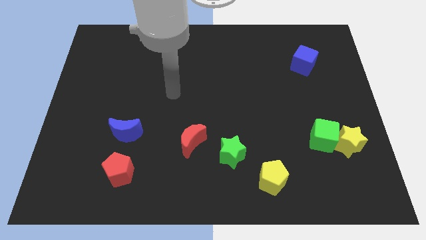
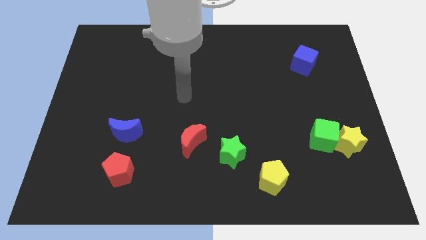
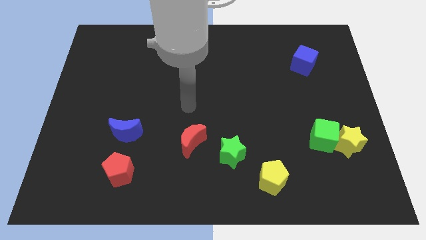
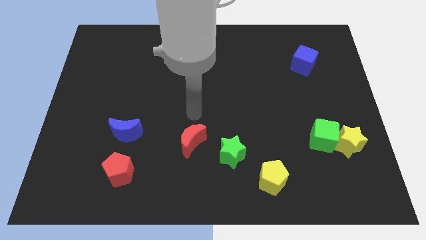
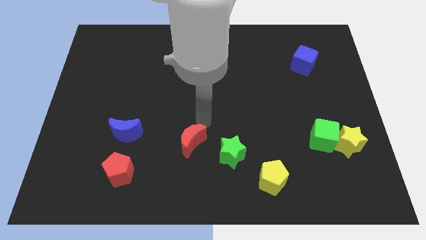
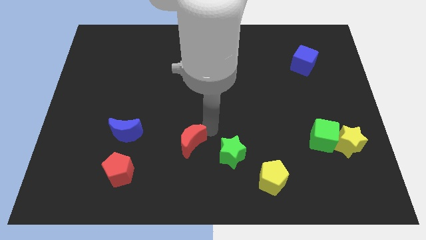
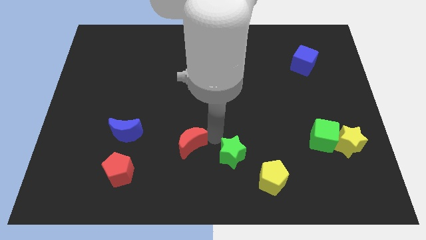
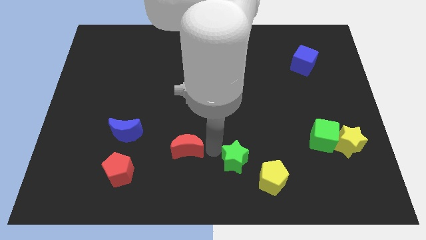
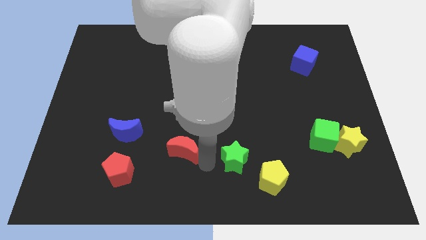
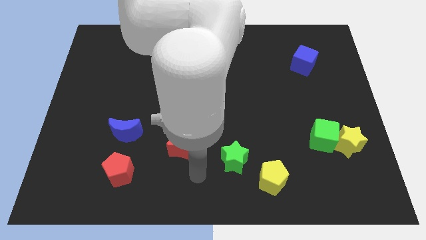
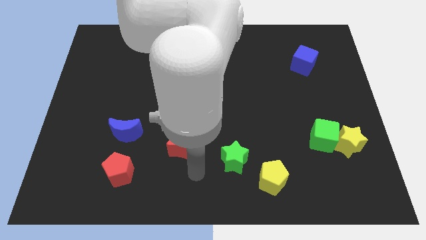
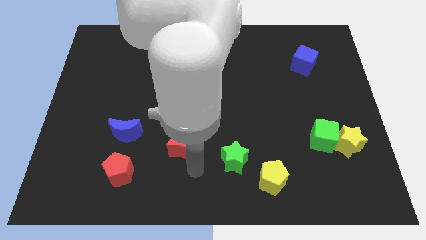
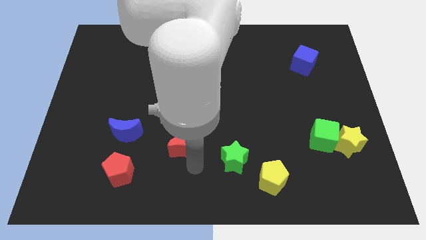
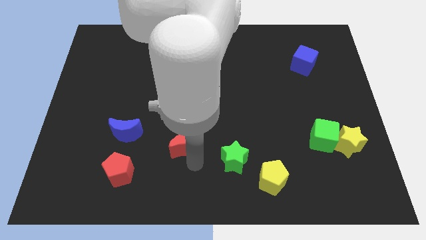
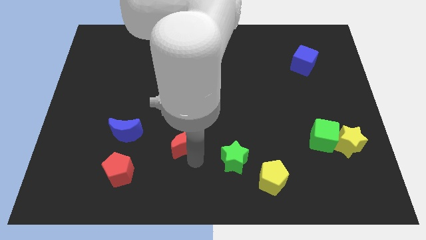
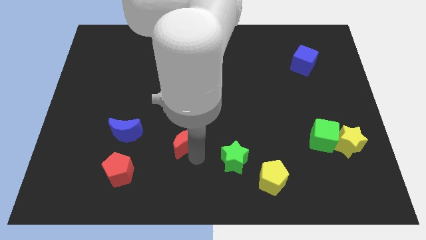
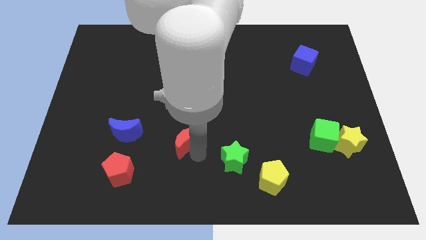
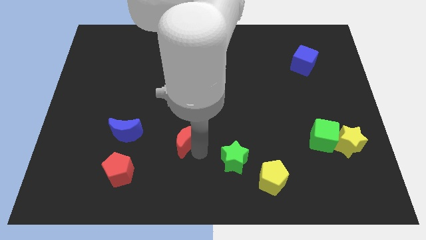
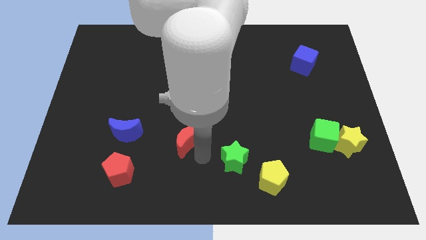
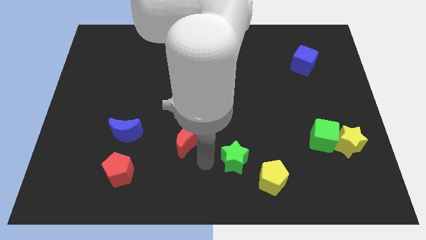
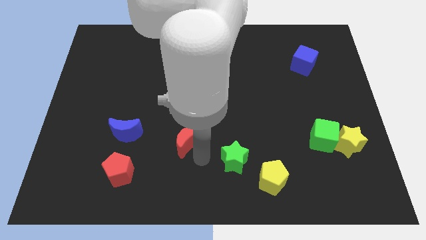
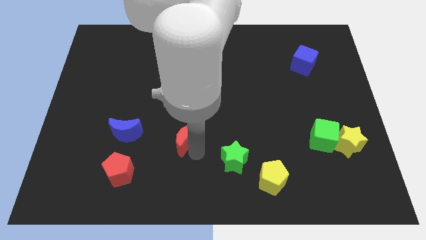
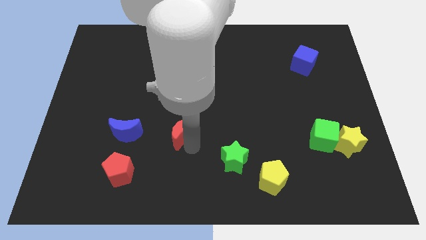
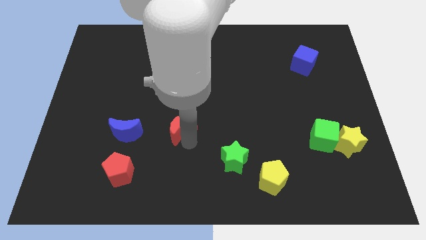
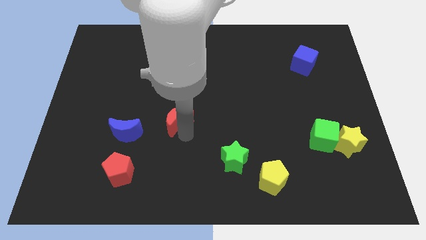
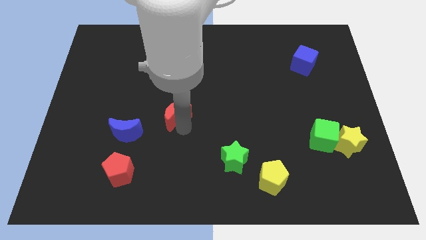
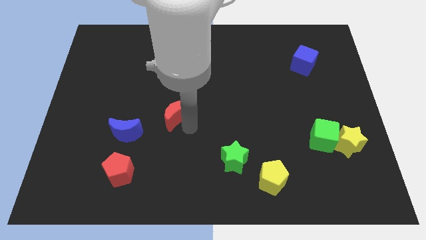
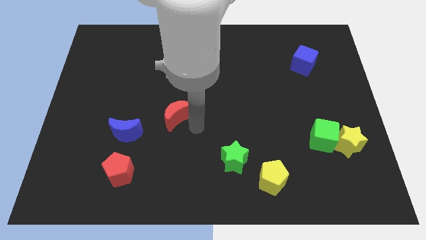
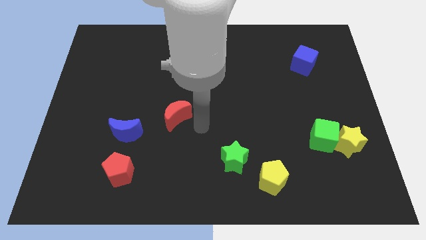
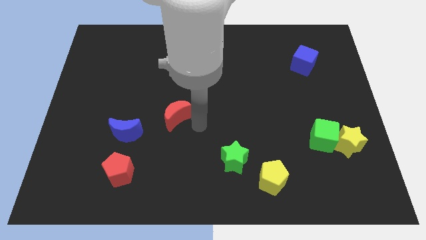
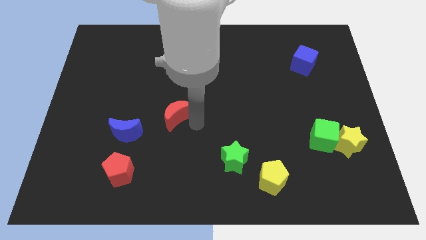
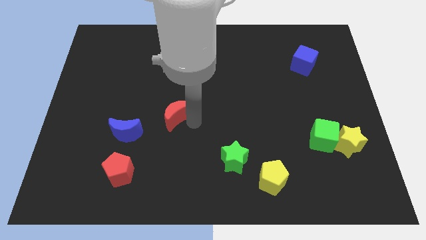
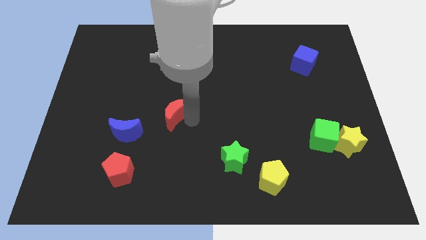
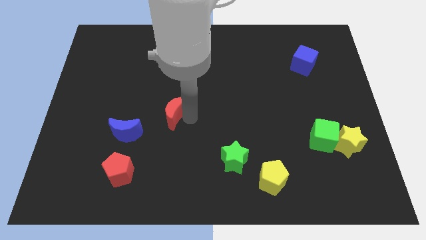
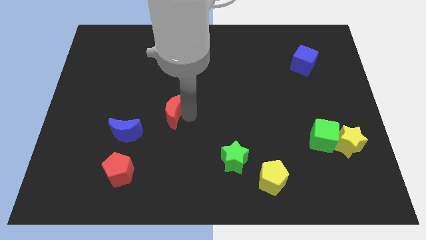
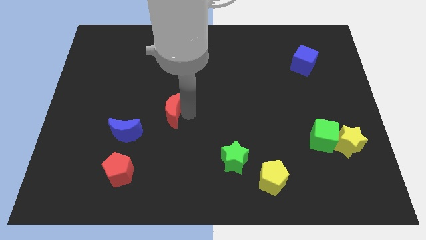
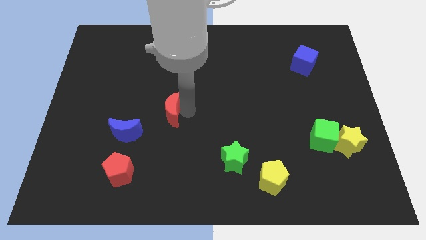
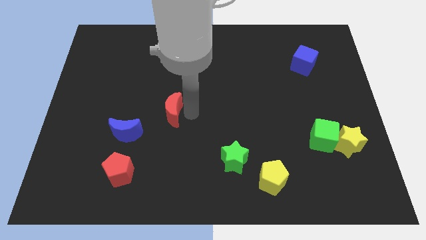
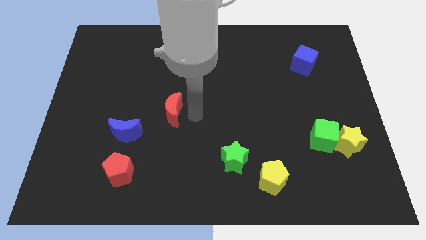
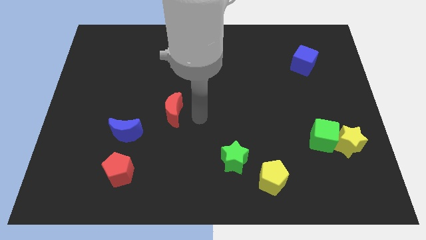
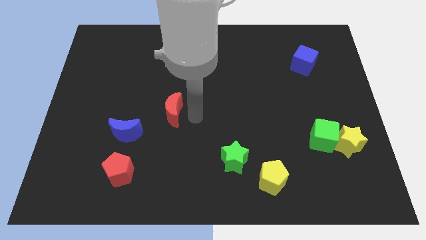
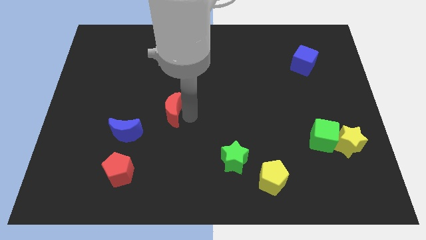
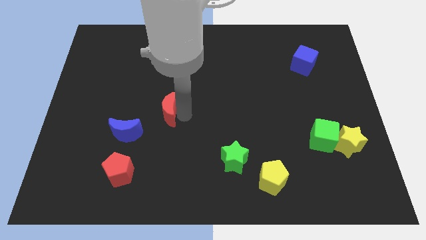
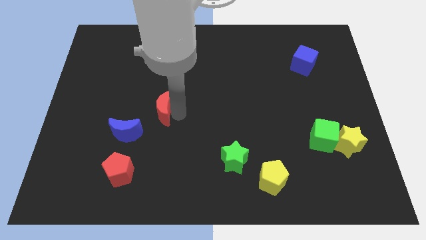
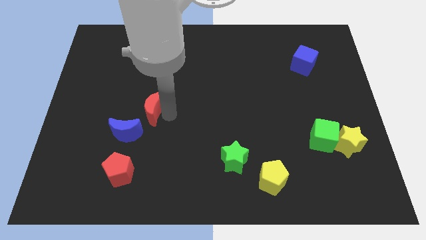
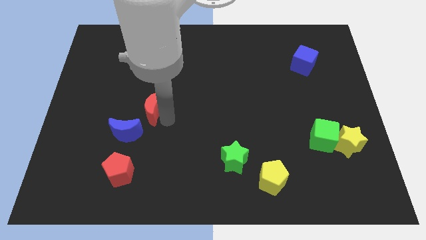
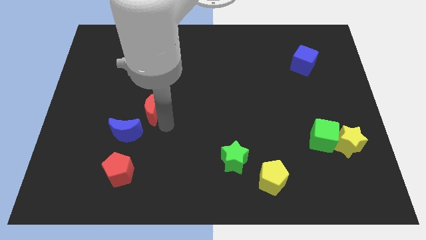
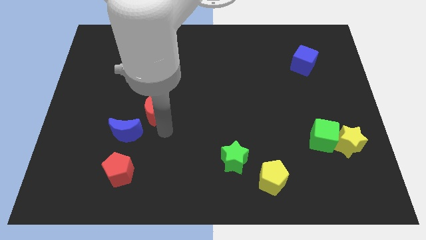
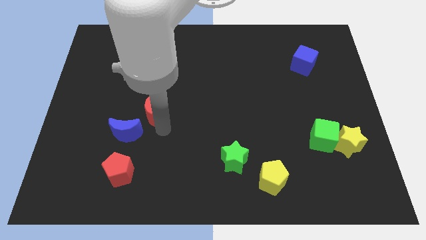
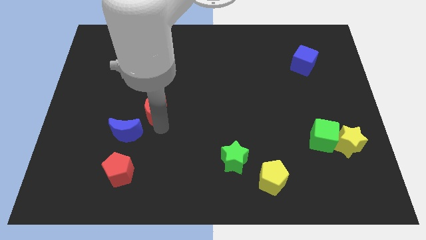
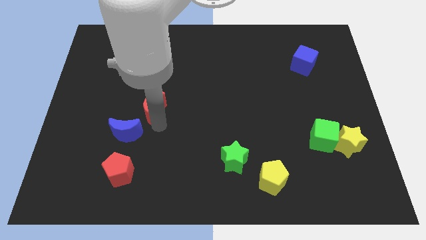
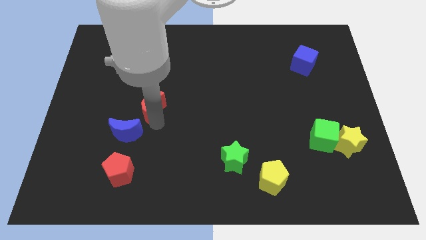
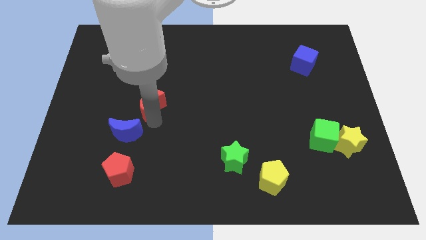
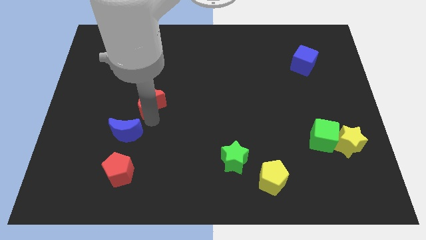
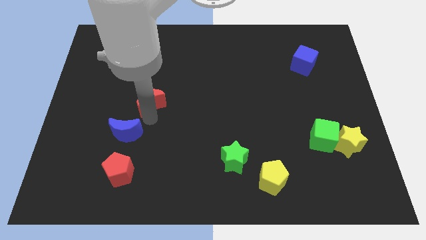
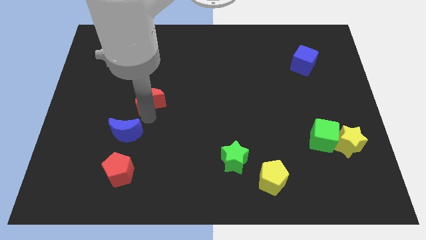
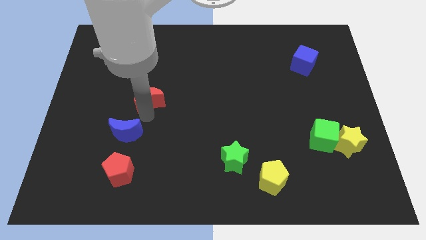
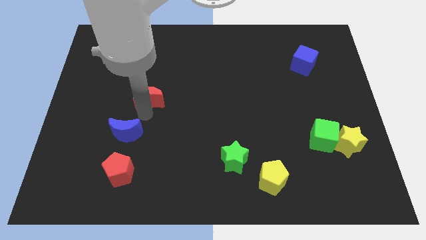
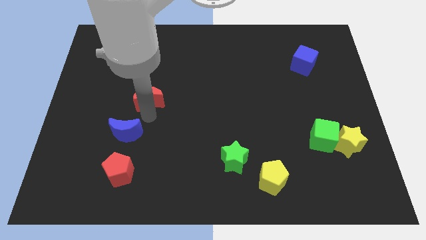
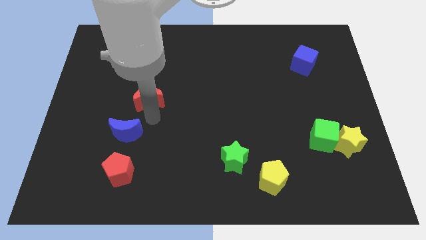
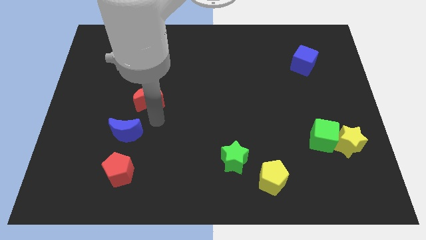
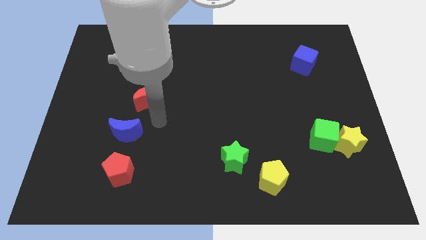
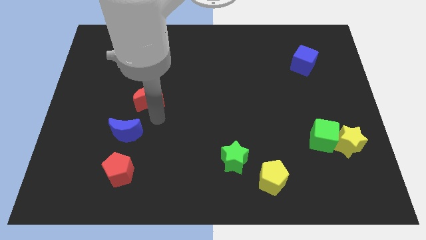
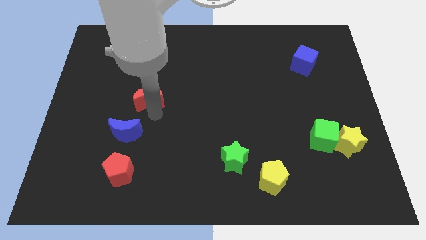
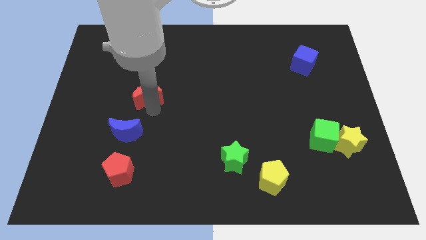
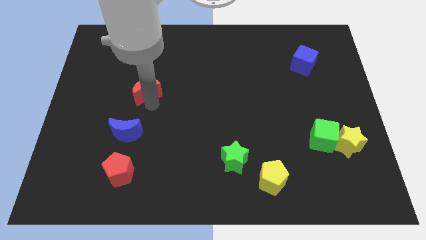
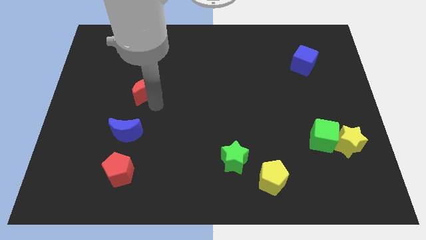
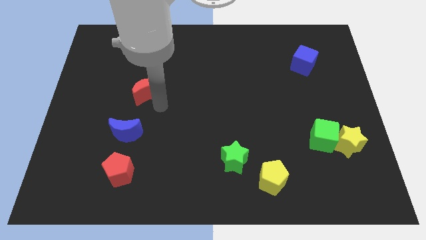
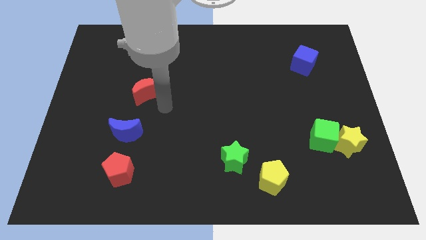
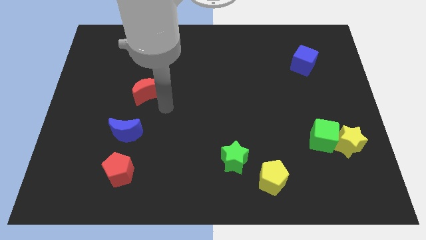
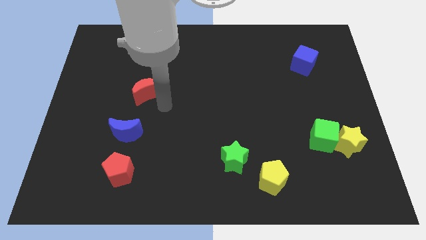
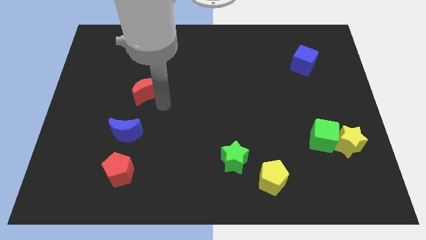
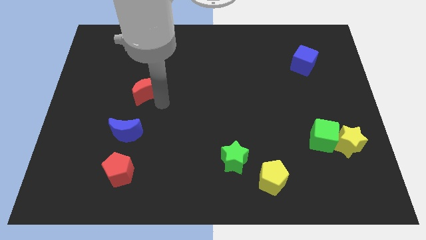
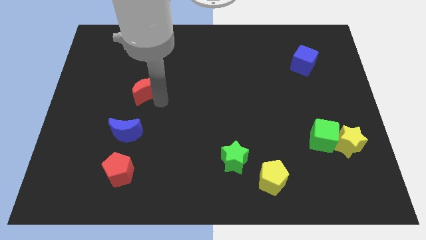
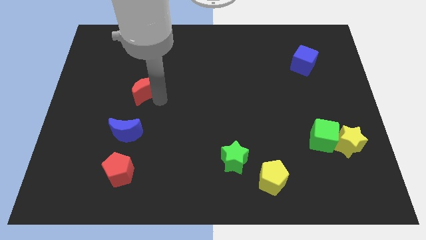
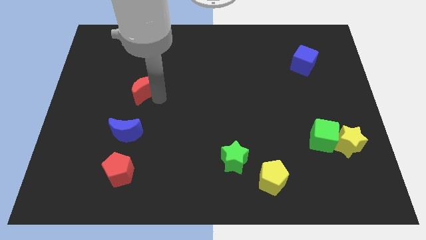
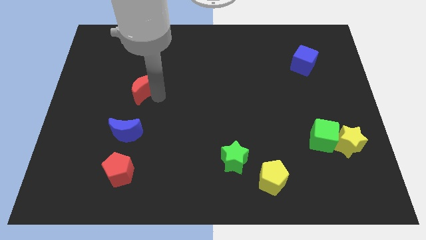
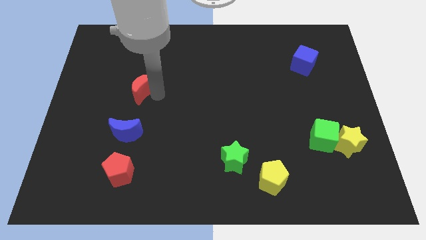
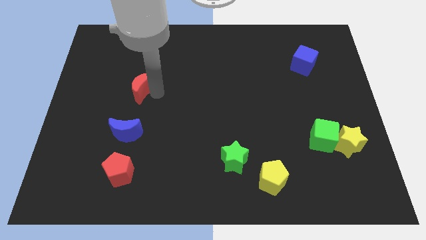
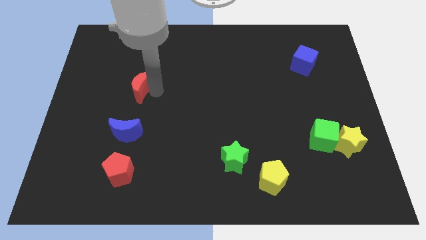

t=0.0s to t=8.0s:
move the red moon upwards and left
